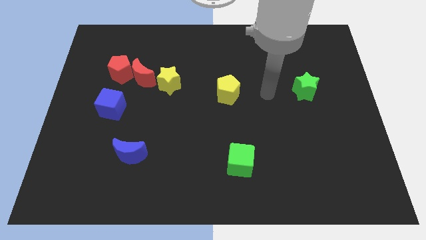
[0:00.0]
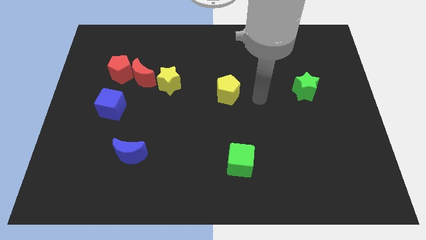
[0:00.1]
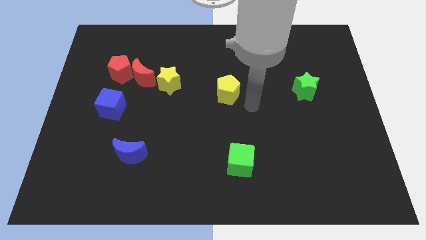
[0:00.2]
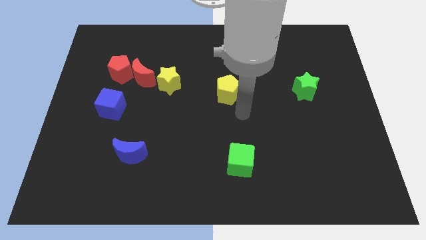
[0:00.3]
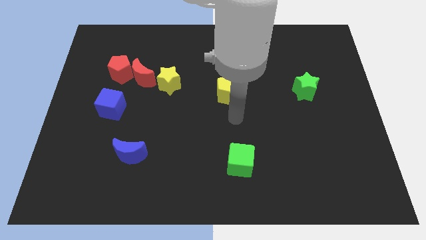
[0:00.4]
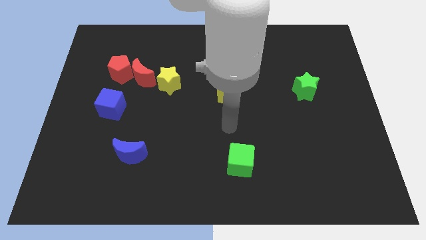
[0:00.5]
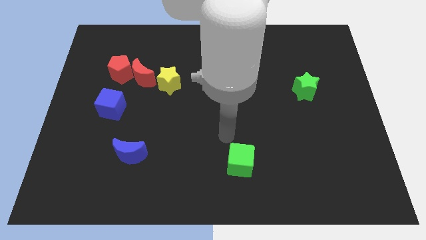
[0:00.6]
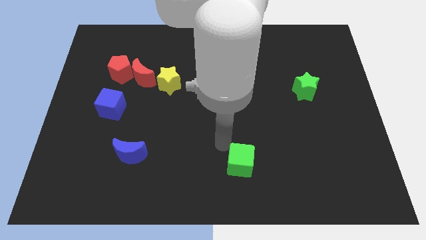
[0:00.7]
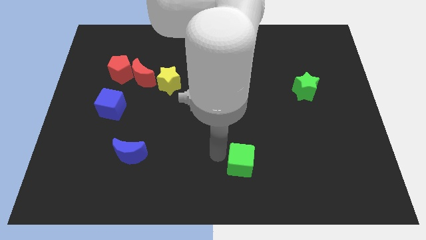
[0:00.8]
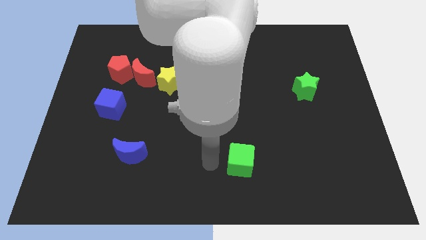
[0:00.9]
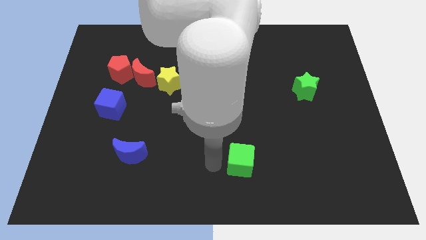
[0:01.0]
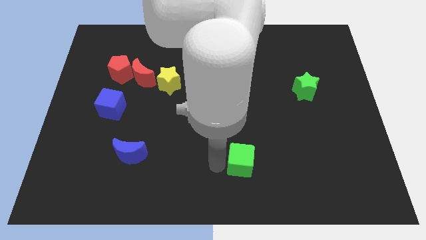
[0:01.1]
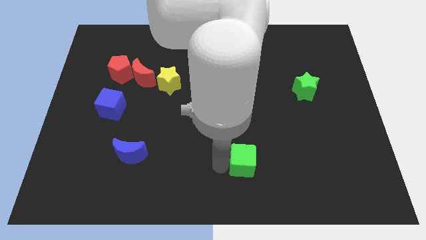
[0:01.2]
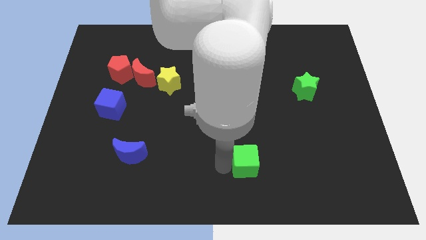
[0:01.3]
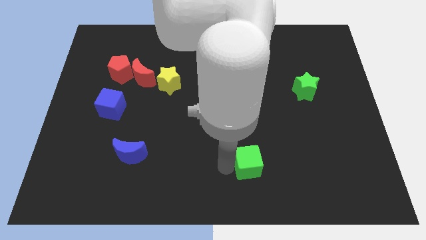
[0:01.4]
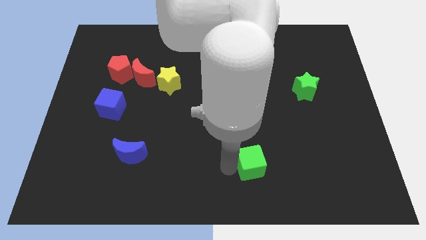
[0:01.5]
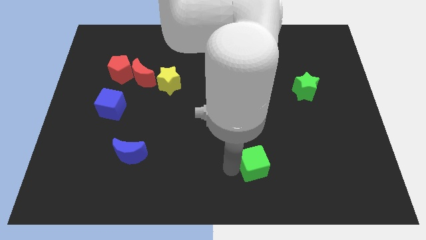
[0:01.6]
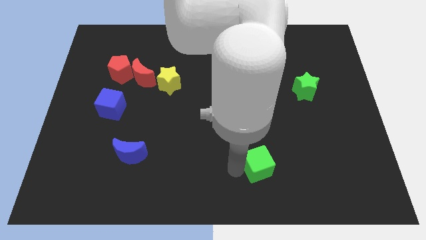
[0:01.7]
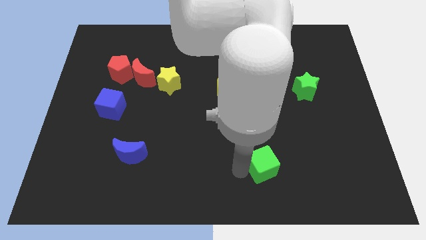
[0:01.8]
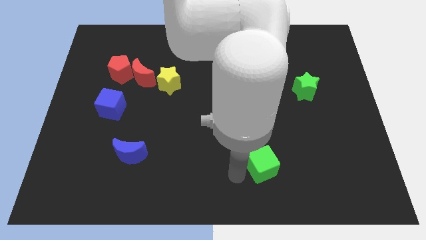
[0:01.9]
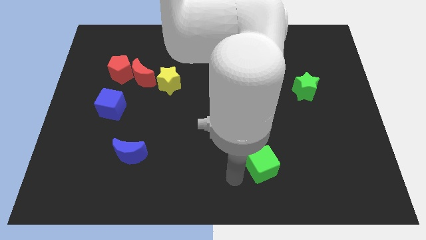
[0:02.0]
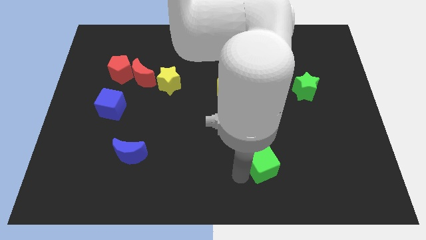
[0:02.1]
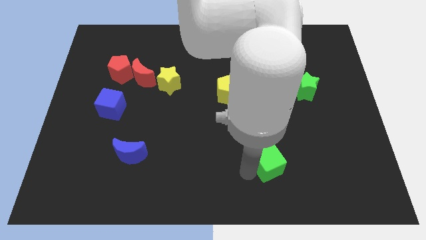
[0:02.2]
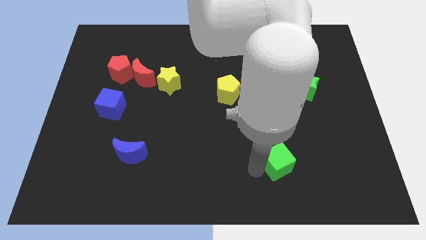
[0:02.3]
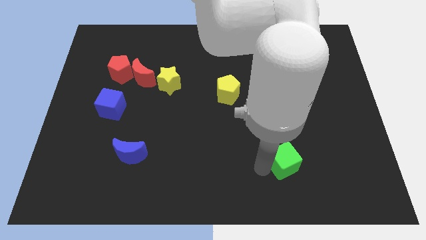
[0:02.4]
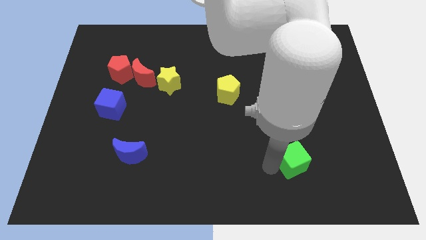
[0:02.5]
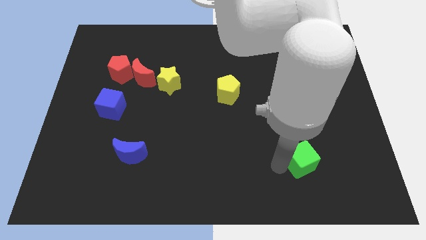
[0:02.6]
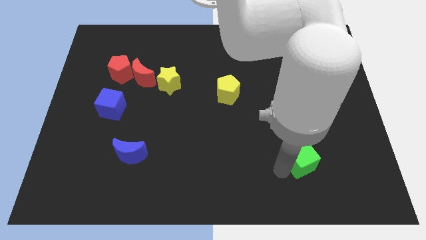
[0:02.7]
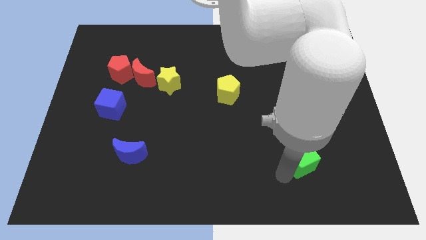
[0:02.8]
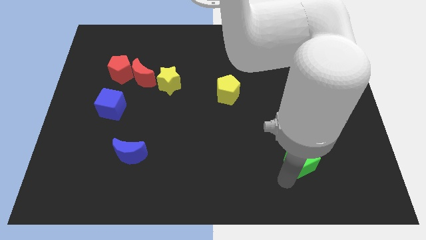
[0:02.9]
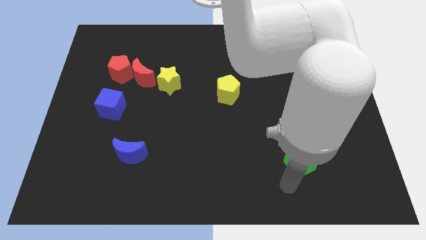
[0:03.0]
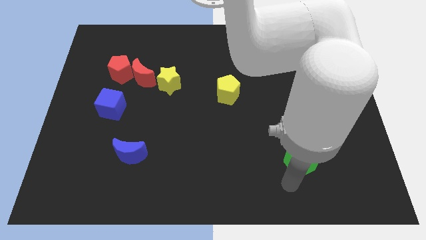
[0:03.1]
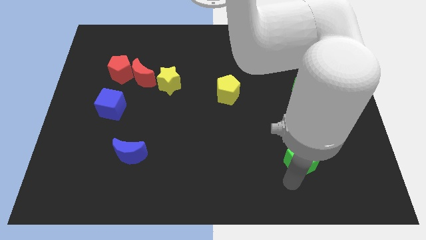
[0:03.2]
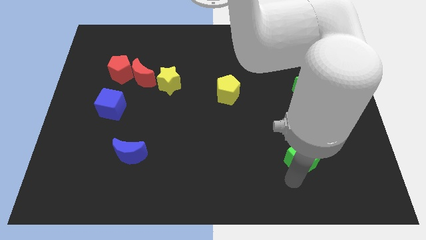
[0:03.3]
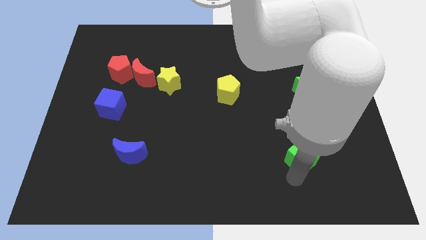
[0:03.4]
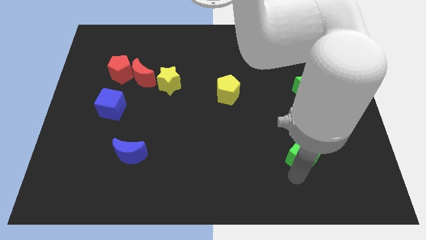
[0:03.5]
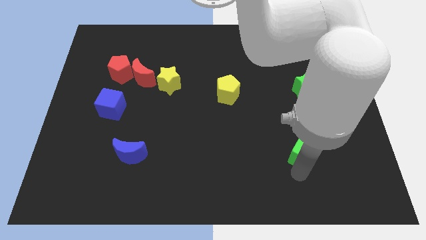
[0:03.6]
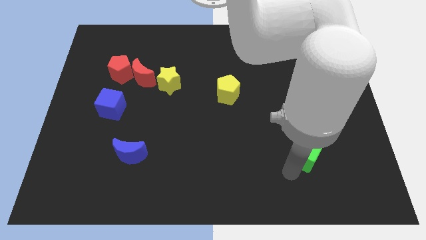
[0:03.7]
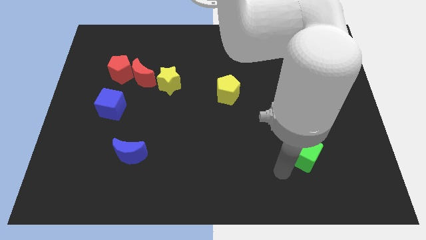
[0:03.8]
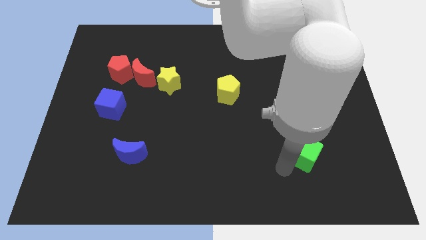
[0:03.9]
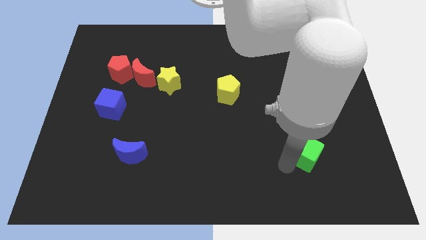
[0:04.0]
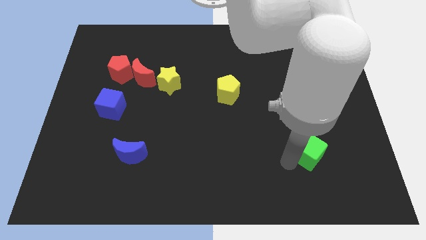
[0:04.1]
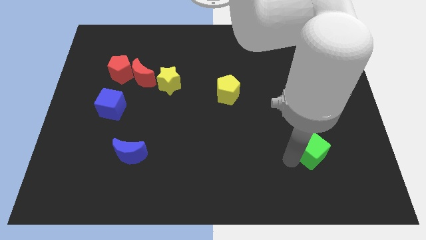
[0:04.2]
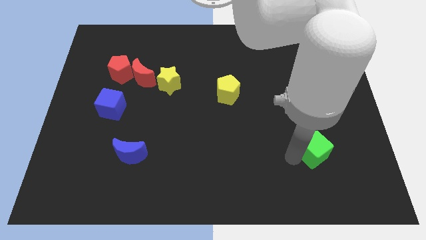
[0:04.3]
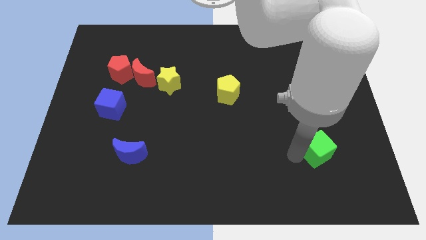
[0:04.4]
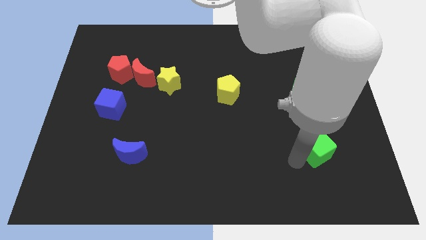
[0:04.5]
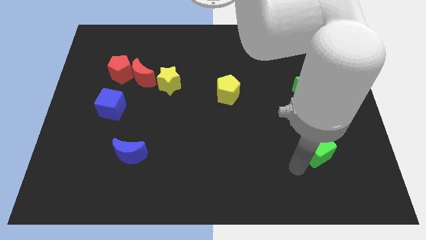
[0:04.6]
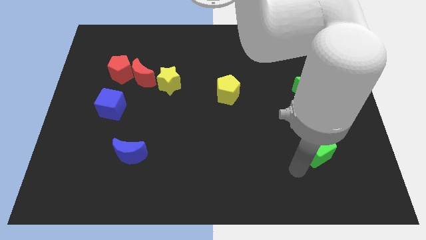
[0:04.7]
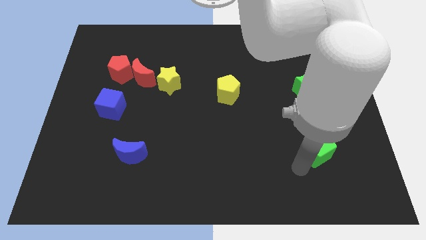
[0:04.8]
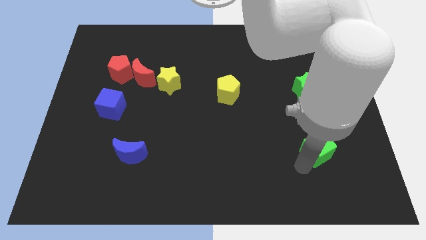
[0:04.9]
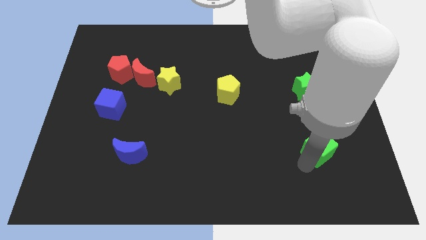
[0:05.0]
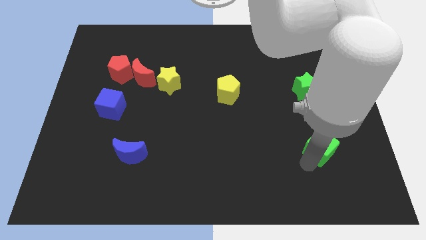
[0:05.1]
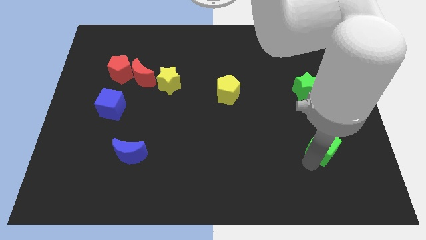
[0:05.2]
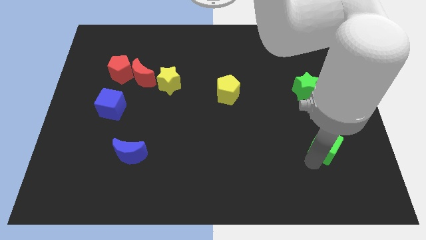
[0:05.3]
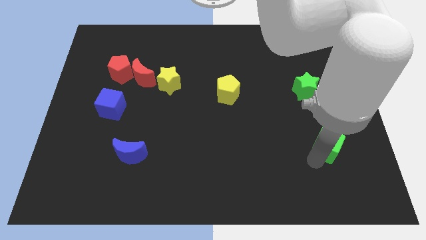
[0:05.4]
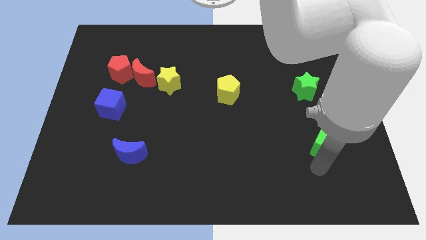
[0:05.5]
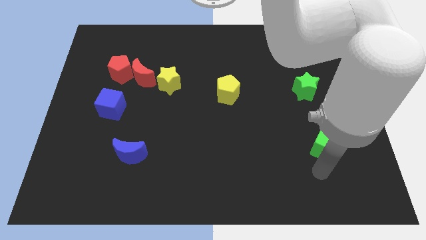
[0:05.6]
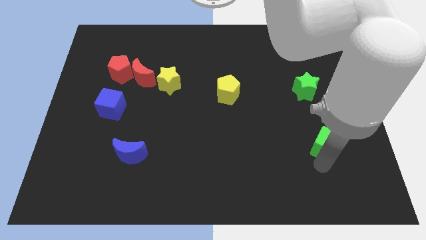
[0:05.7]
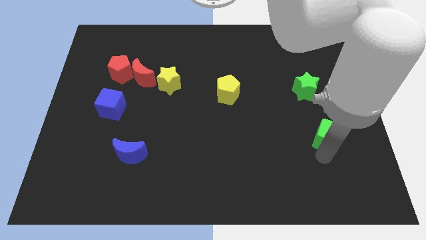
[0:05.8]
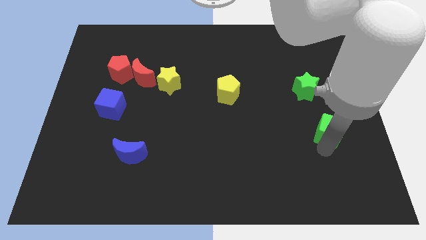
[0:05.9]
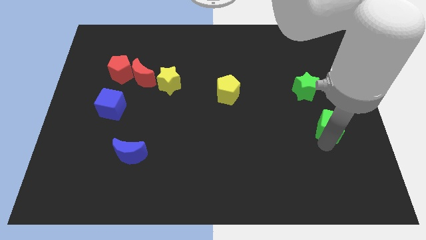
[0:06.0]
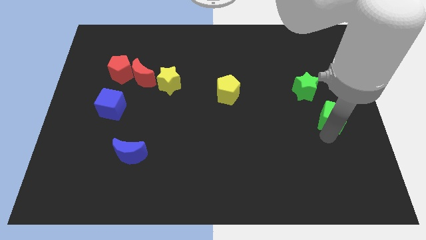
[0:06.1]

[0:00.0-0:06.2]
push the green cube diagonally up and to the right

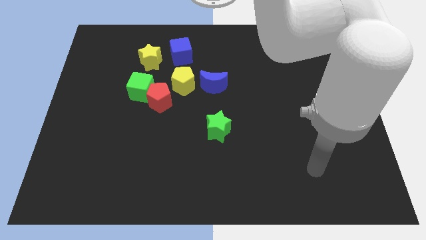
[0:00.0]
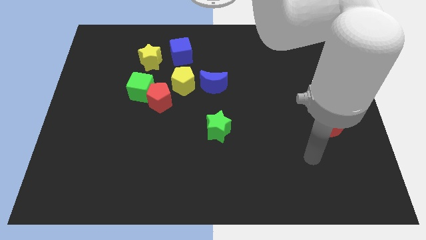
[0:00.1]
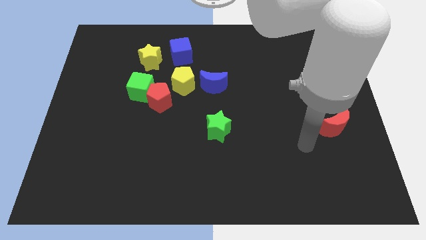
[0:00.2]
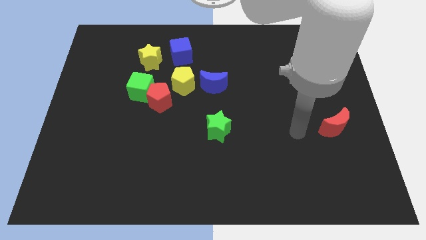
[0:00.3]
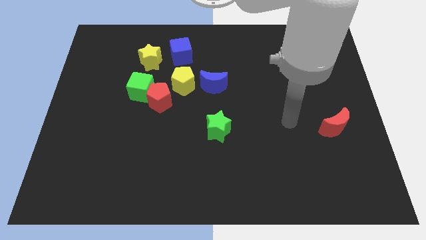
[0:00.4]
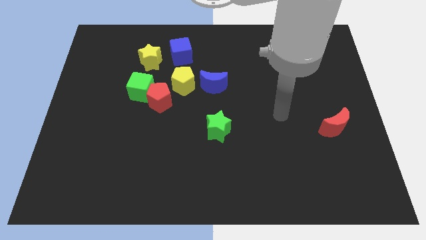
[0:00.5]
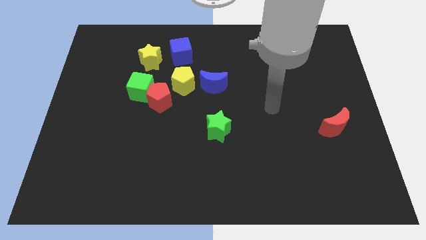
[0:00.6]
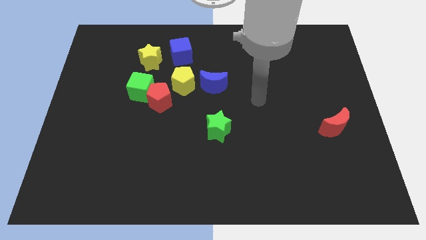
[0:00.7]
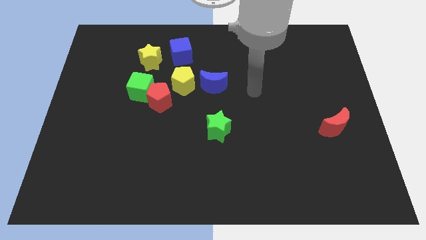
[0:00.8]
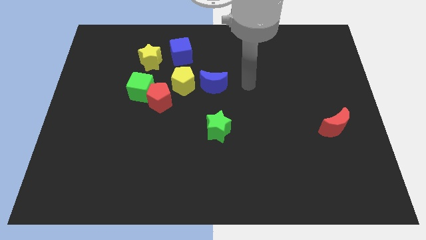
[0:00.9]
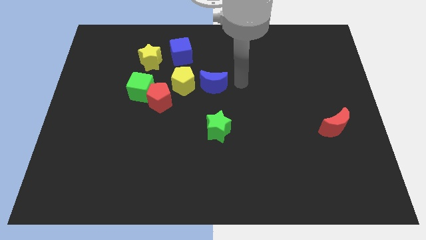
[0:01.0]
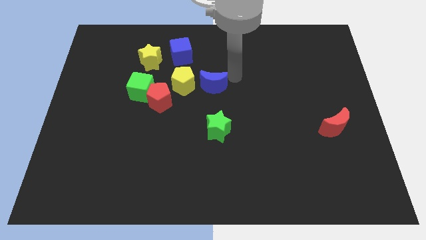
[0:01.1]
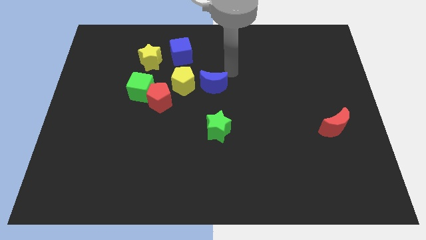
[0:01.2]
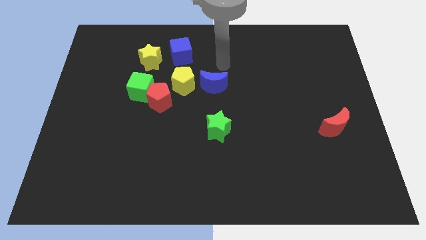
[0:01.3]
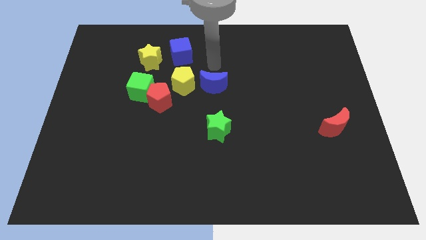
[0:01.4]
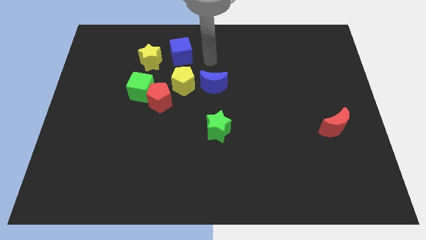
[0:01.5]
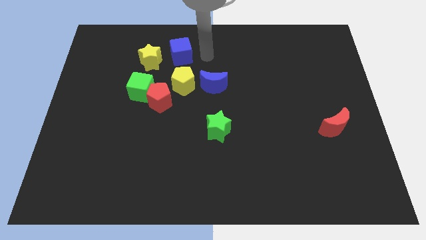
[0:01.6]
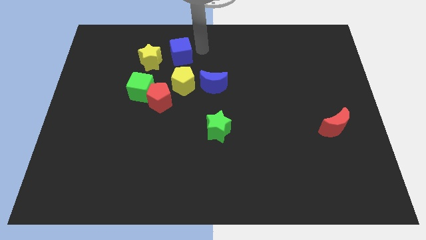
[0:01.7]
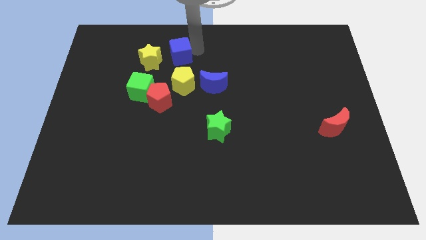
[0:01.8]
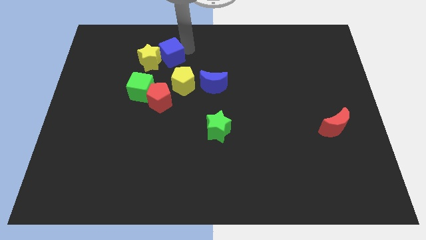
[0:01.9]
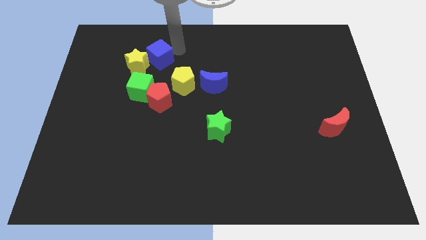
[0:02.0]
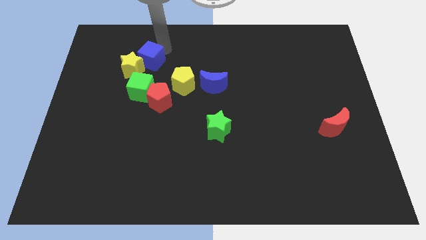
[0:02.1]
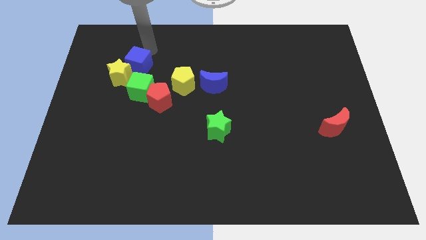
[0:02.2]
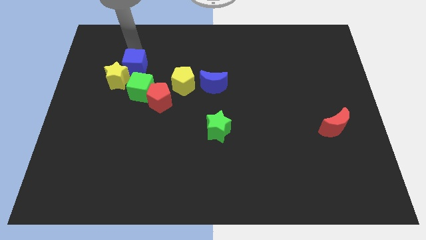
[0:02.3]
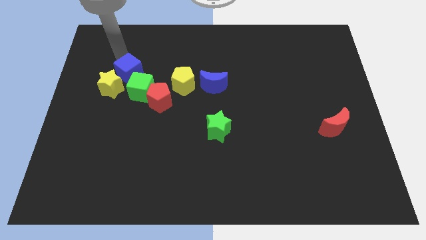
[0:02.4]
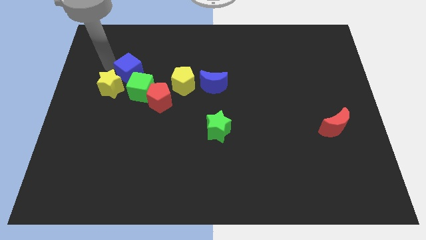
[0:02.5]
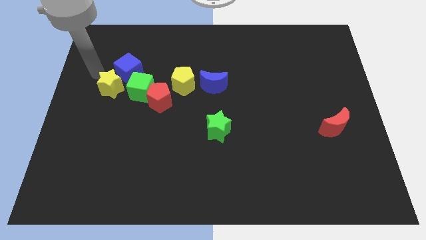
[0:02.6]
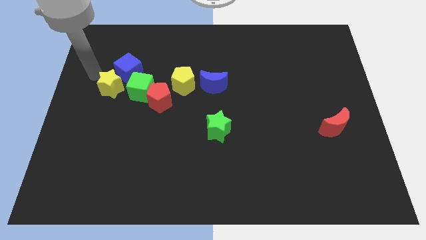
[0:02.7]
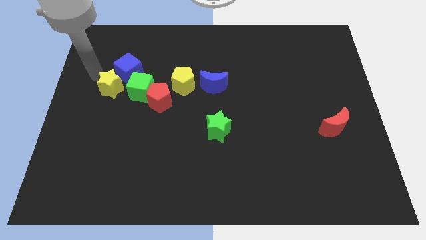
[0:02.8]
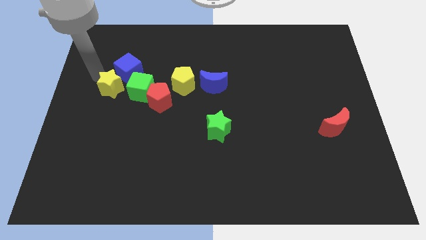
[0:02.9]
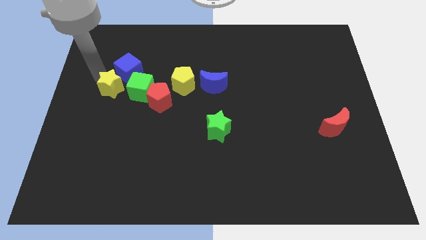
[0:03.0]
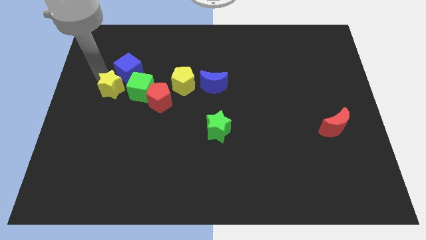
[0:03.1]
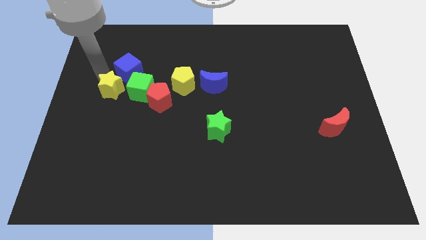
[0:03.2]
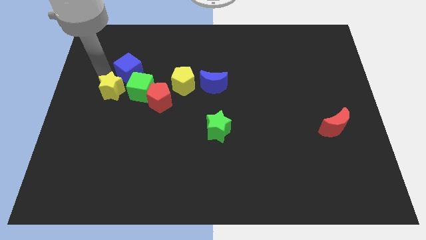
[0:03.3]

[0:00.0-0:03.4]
slightly push the yellow star downwards
